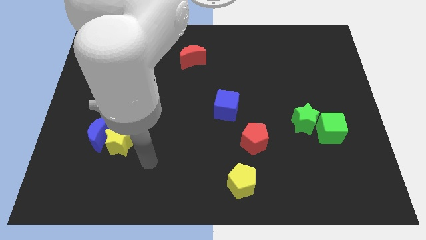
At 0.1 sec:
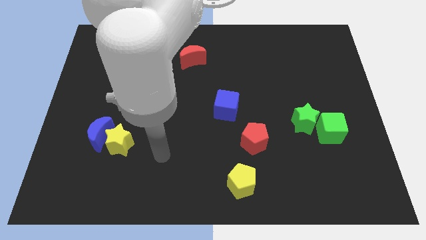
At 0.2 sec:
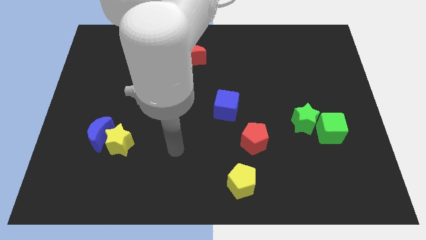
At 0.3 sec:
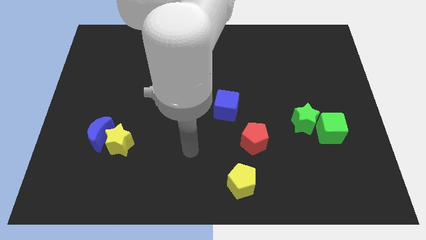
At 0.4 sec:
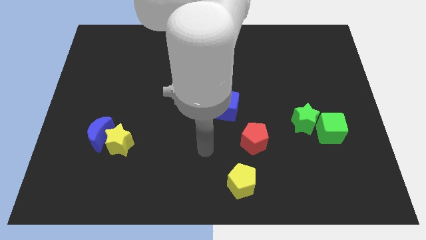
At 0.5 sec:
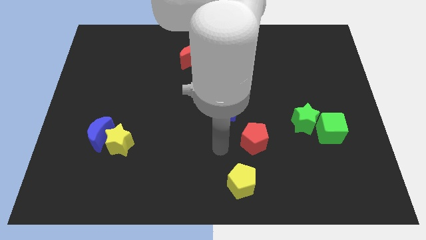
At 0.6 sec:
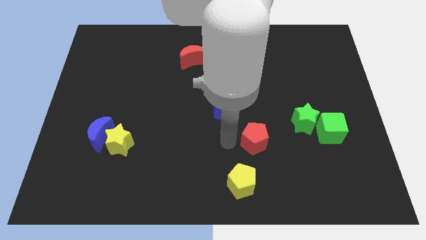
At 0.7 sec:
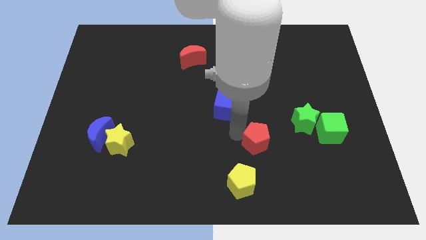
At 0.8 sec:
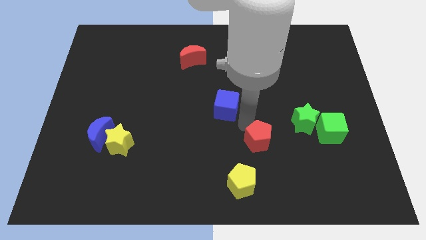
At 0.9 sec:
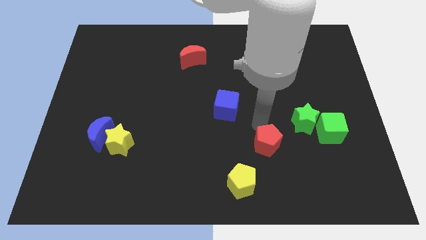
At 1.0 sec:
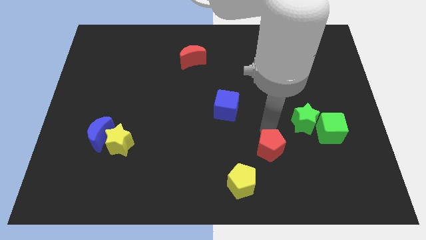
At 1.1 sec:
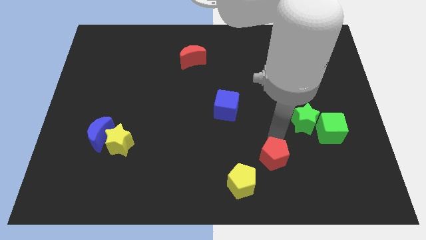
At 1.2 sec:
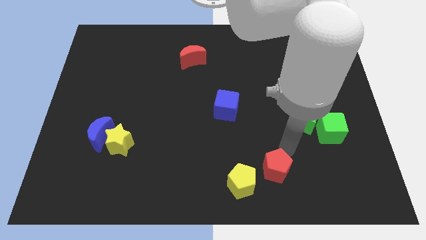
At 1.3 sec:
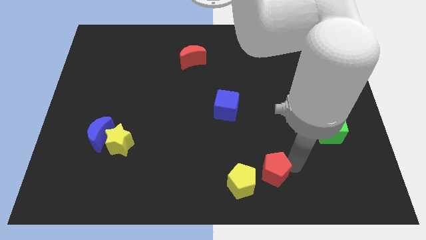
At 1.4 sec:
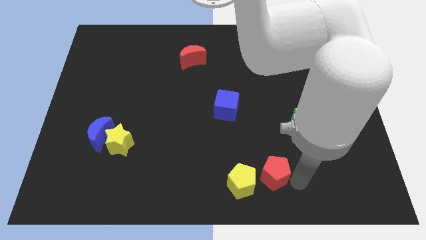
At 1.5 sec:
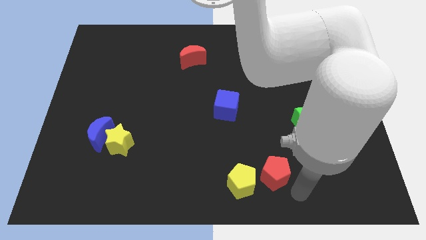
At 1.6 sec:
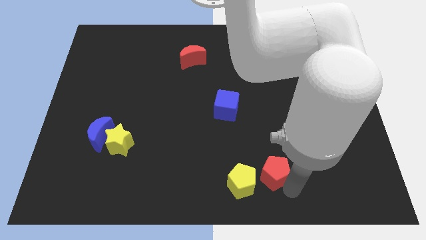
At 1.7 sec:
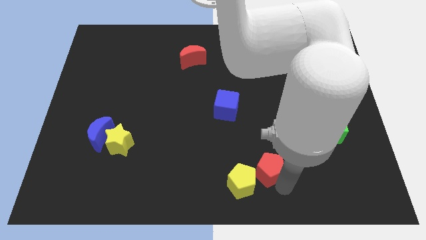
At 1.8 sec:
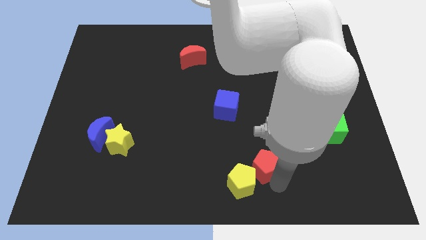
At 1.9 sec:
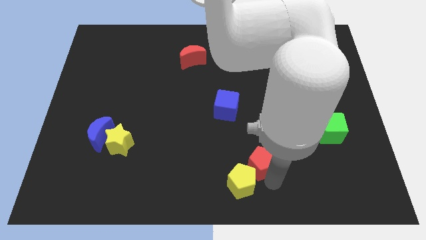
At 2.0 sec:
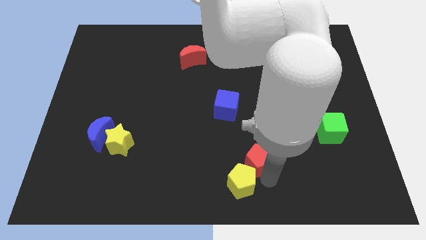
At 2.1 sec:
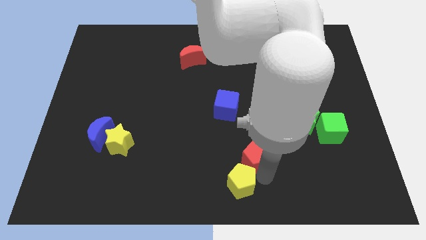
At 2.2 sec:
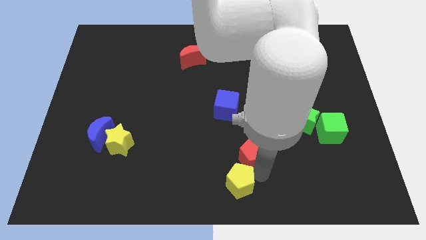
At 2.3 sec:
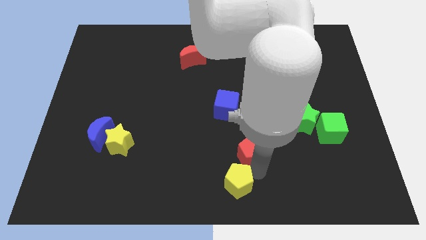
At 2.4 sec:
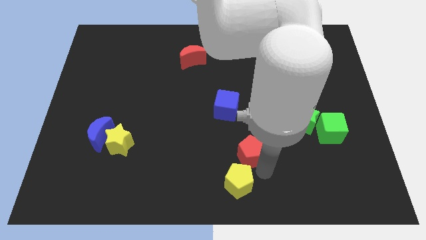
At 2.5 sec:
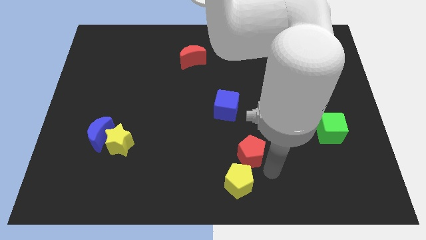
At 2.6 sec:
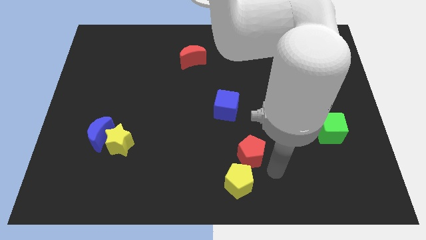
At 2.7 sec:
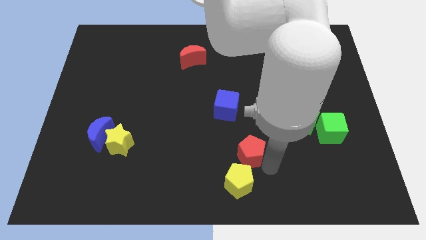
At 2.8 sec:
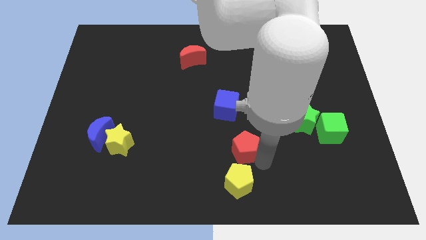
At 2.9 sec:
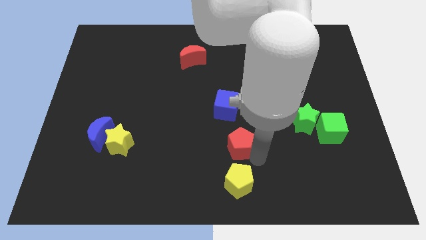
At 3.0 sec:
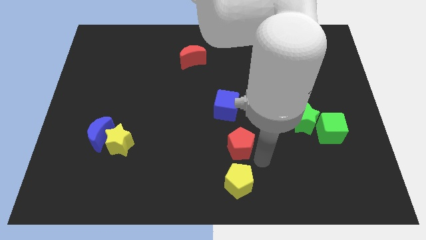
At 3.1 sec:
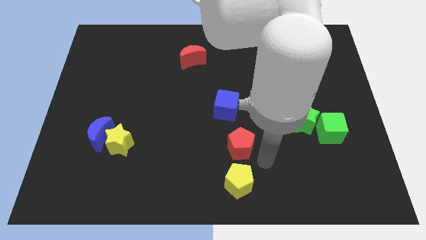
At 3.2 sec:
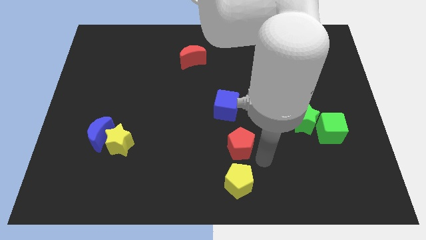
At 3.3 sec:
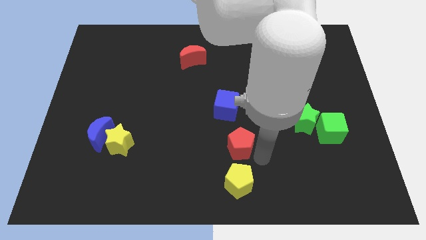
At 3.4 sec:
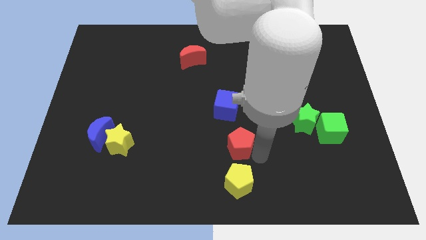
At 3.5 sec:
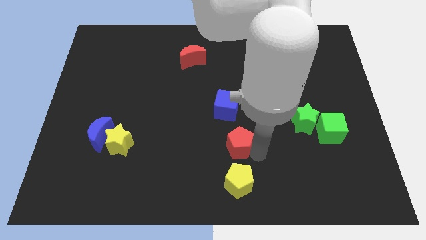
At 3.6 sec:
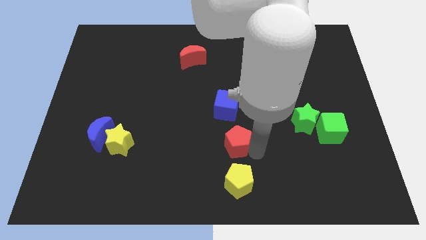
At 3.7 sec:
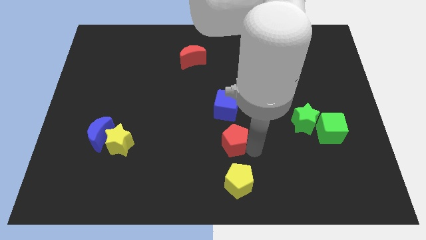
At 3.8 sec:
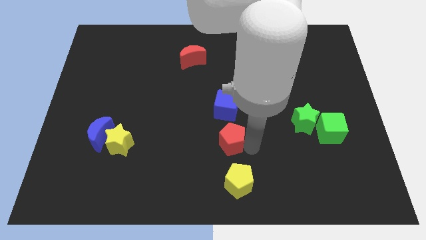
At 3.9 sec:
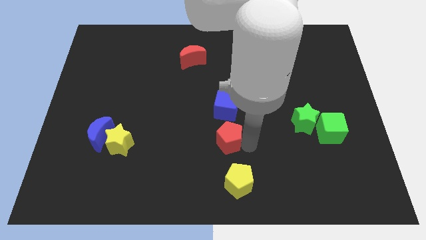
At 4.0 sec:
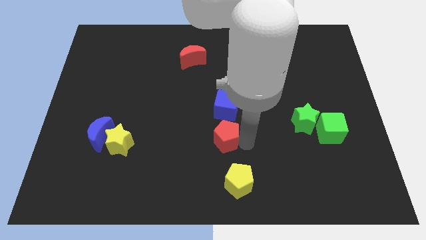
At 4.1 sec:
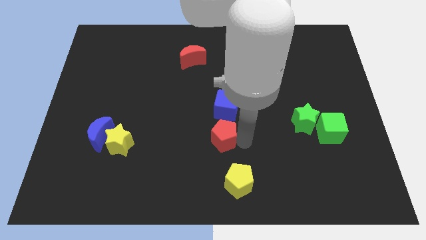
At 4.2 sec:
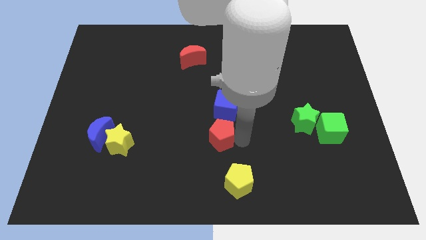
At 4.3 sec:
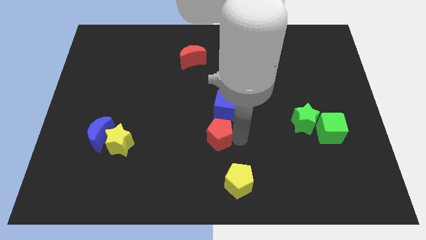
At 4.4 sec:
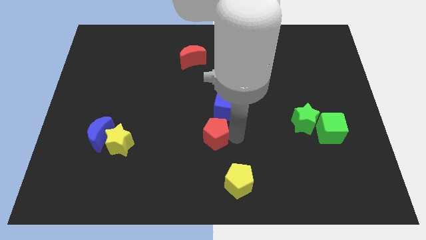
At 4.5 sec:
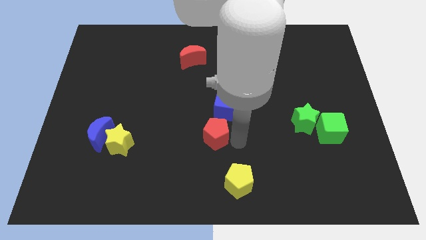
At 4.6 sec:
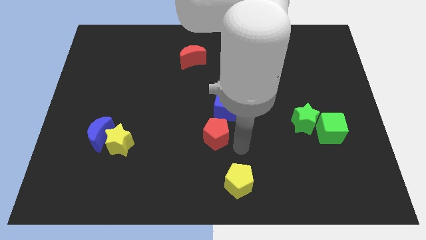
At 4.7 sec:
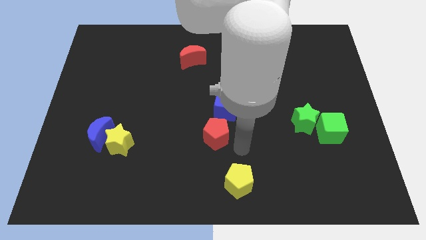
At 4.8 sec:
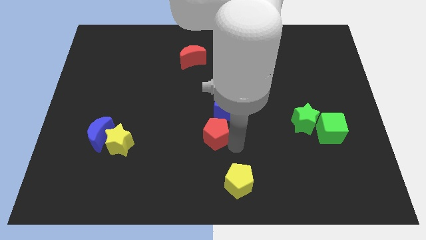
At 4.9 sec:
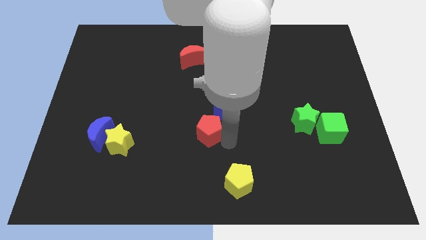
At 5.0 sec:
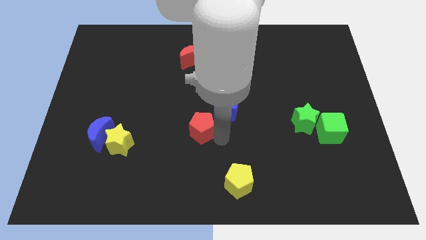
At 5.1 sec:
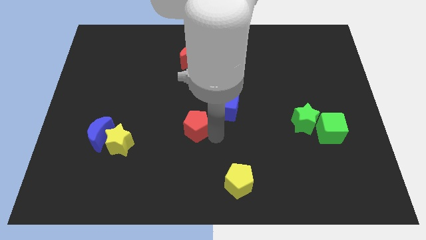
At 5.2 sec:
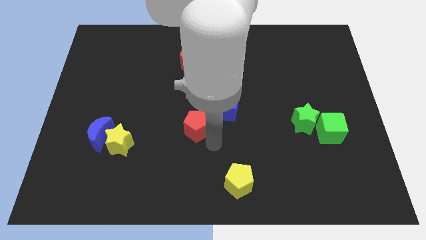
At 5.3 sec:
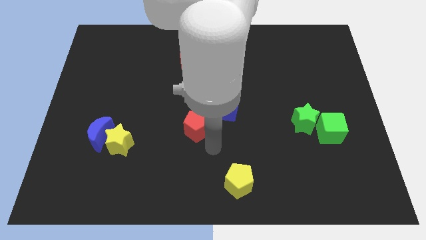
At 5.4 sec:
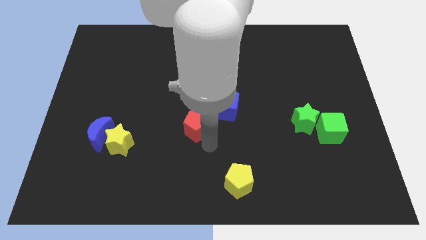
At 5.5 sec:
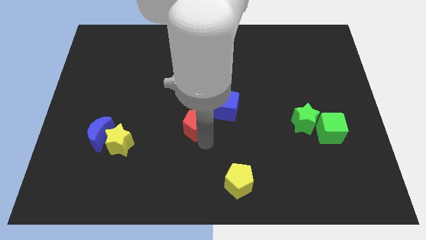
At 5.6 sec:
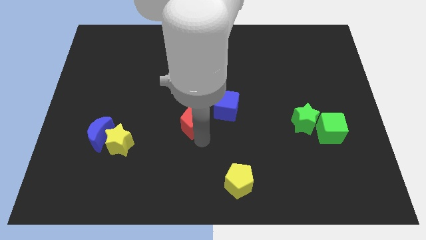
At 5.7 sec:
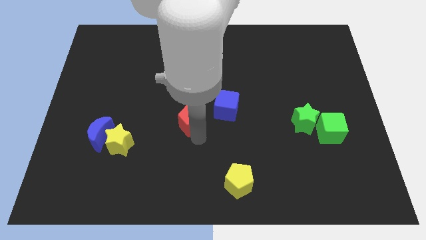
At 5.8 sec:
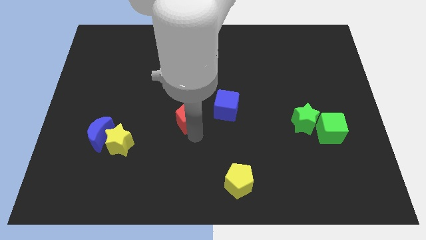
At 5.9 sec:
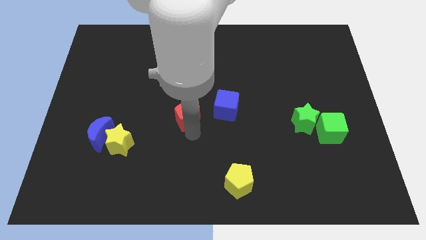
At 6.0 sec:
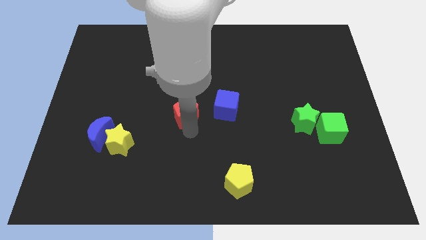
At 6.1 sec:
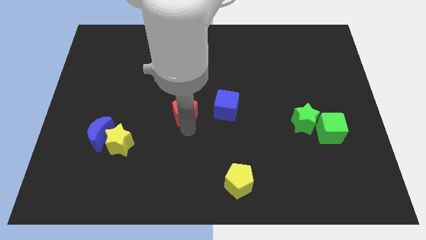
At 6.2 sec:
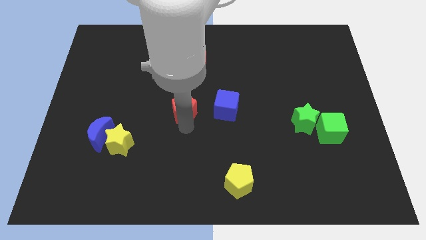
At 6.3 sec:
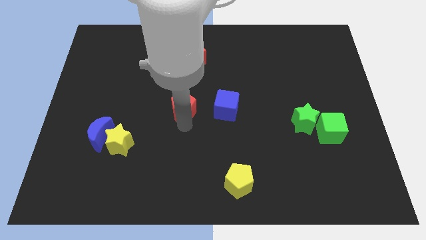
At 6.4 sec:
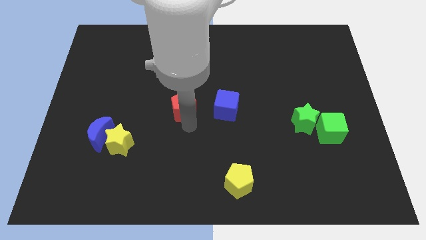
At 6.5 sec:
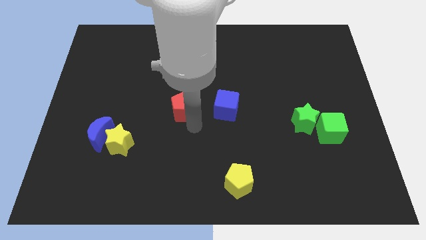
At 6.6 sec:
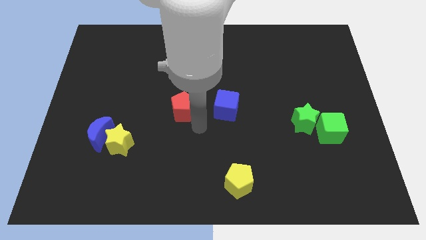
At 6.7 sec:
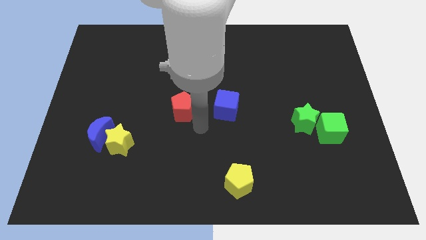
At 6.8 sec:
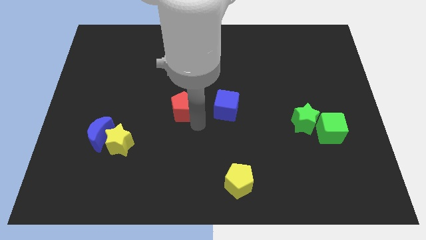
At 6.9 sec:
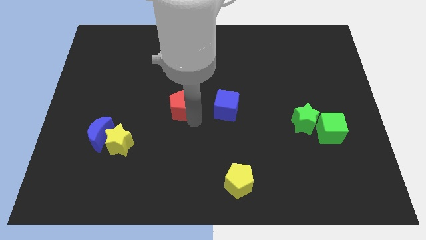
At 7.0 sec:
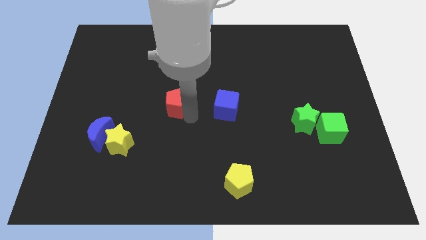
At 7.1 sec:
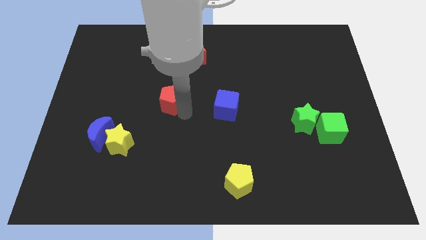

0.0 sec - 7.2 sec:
move the red pentagon diagonally up and left

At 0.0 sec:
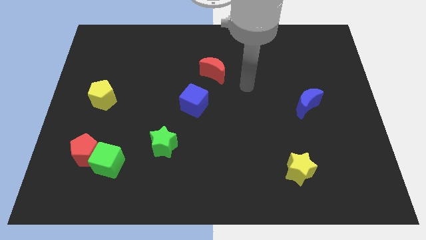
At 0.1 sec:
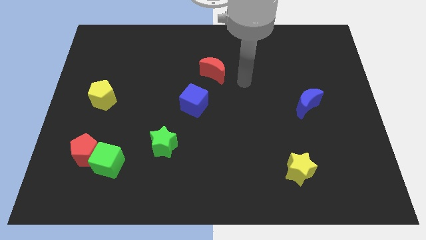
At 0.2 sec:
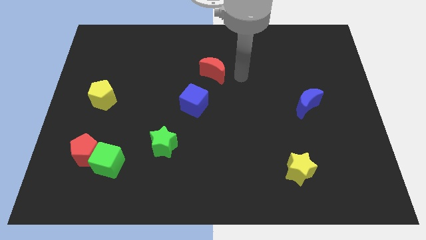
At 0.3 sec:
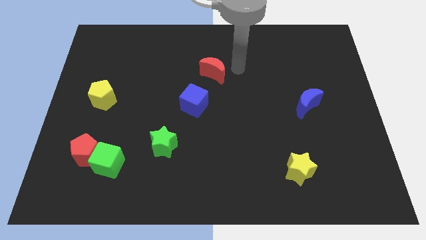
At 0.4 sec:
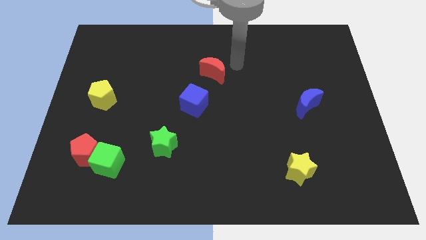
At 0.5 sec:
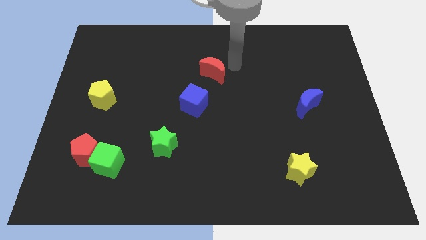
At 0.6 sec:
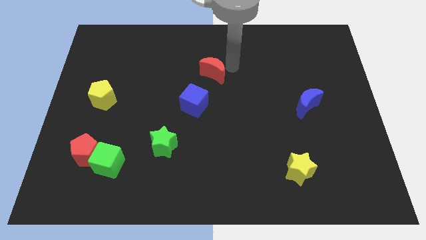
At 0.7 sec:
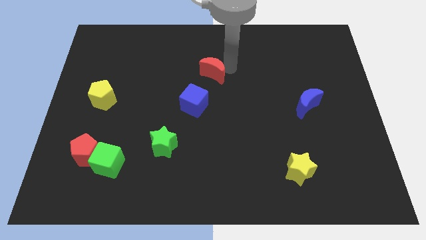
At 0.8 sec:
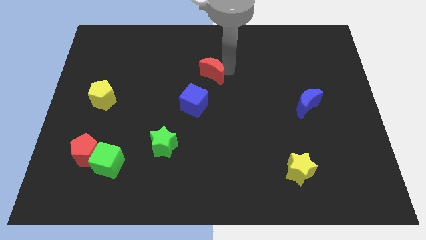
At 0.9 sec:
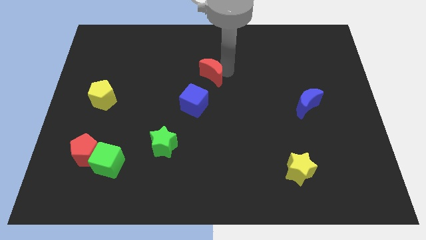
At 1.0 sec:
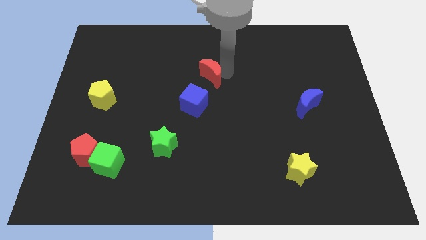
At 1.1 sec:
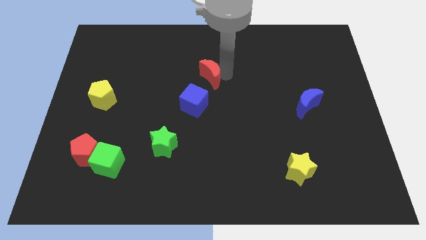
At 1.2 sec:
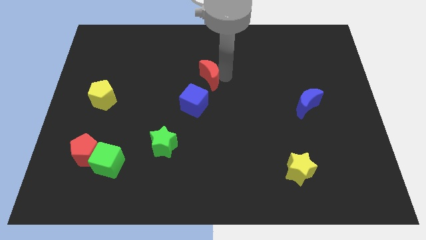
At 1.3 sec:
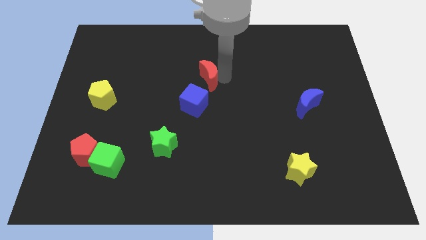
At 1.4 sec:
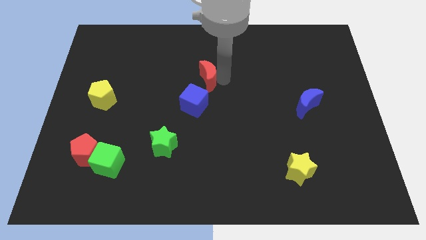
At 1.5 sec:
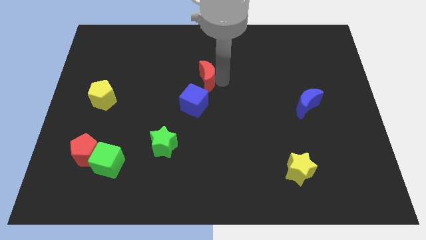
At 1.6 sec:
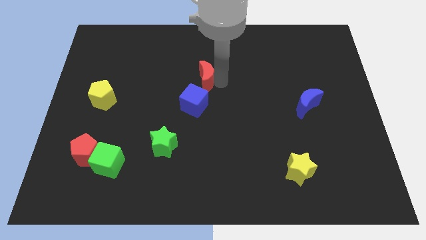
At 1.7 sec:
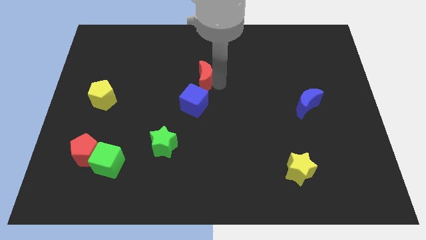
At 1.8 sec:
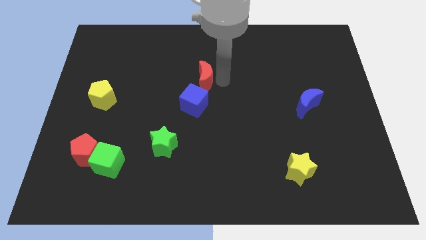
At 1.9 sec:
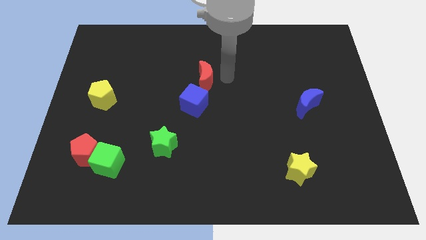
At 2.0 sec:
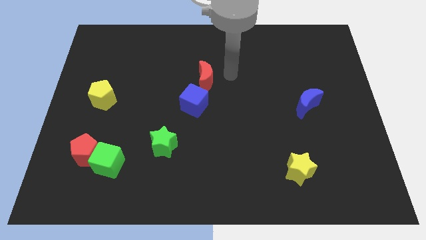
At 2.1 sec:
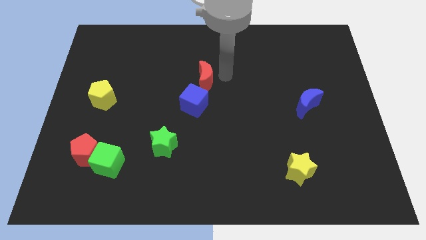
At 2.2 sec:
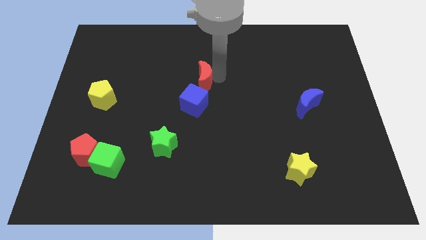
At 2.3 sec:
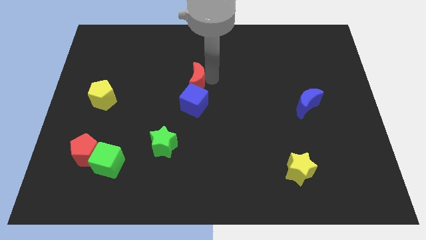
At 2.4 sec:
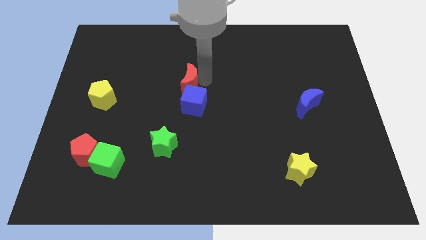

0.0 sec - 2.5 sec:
move the red moon down and left diagonally somewhat
